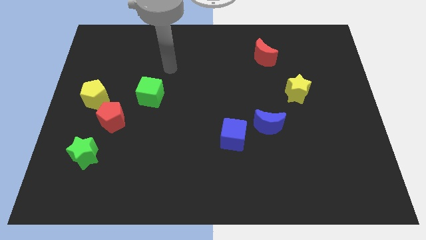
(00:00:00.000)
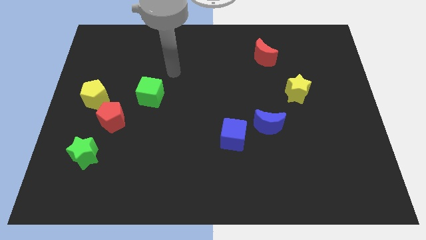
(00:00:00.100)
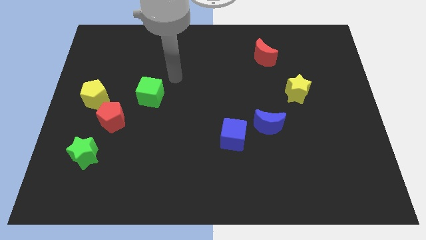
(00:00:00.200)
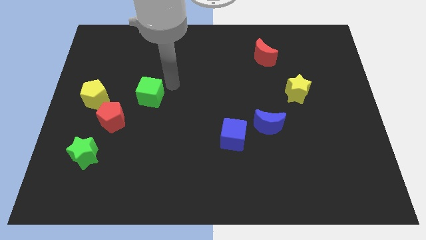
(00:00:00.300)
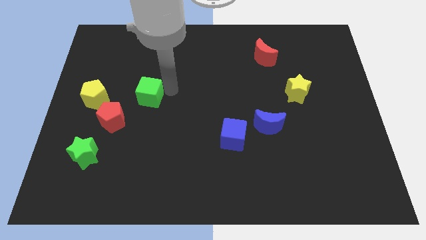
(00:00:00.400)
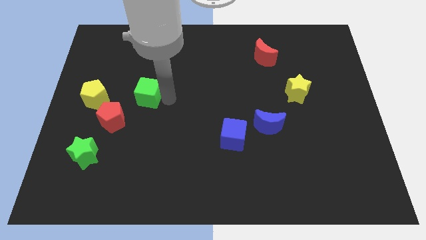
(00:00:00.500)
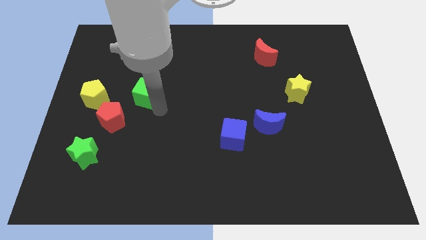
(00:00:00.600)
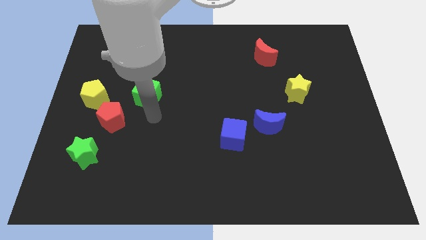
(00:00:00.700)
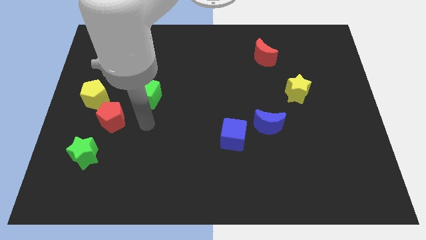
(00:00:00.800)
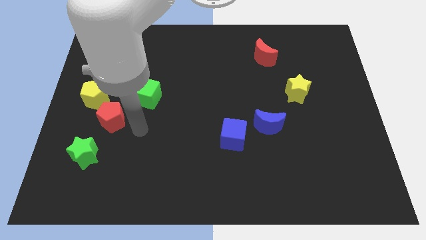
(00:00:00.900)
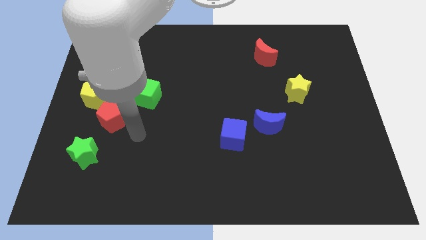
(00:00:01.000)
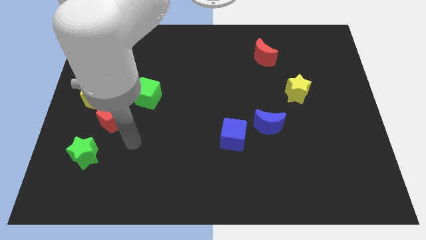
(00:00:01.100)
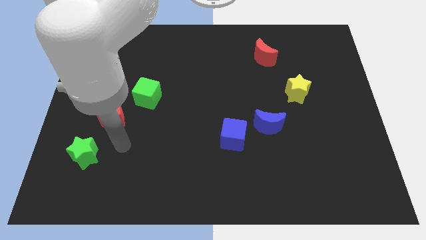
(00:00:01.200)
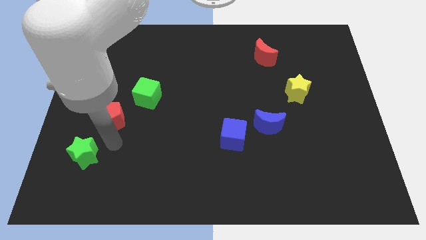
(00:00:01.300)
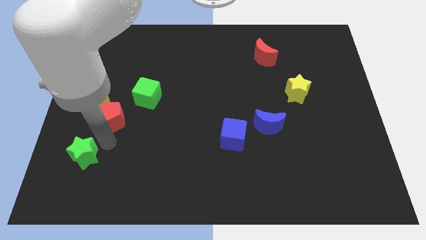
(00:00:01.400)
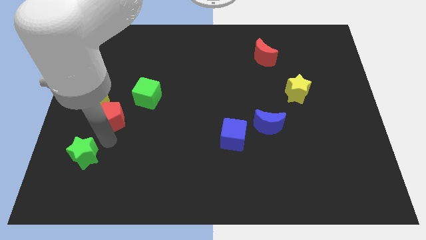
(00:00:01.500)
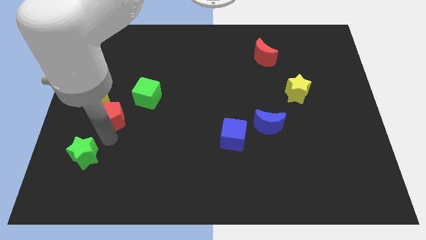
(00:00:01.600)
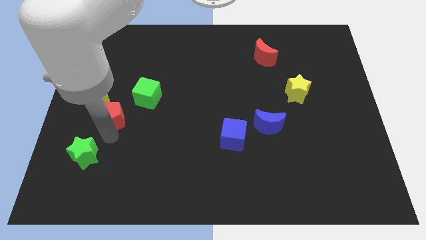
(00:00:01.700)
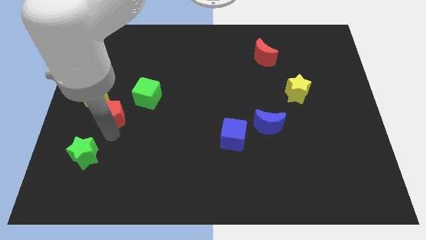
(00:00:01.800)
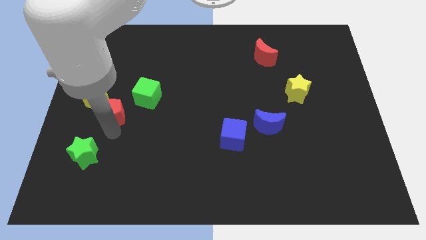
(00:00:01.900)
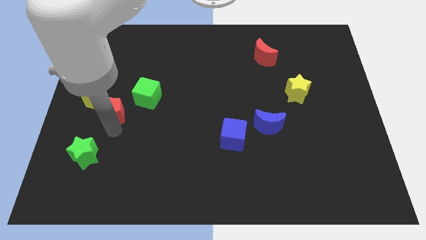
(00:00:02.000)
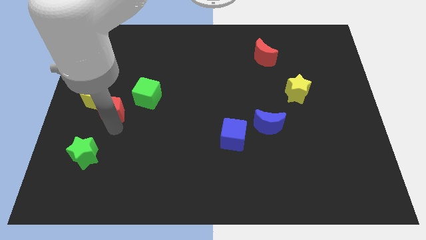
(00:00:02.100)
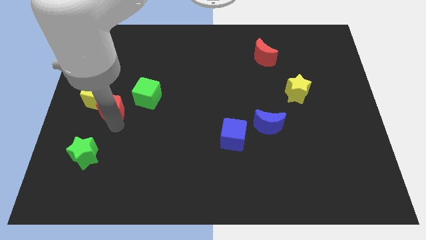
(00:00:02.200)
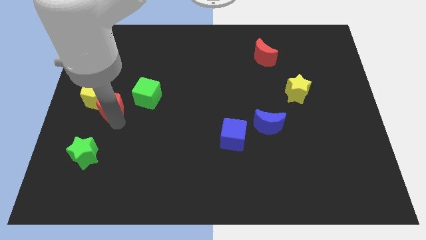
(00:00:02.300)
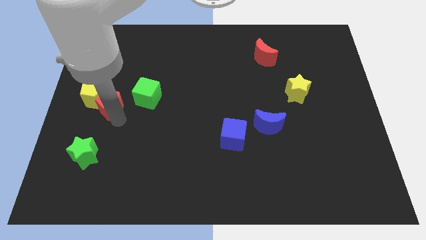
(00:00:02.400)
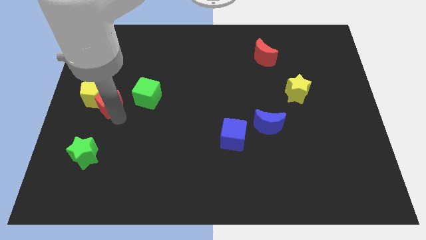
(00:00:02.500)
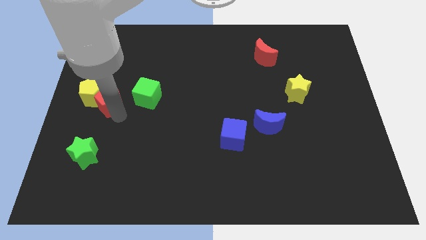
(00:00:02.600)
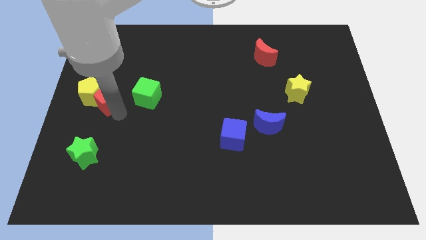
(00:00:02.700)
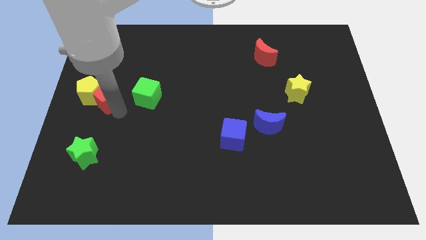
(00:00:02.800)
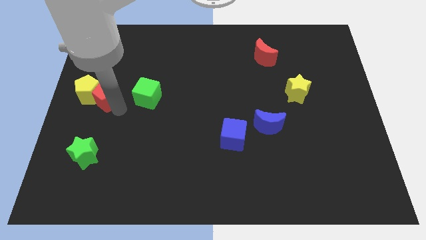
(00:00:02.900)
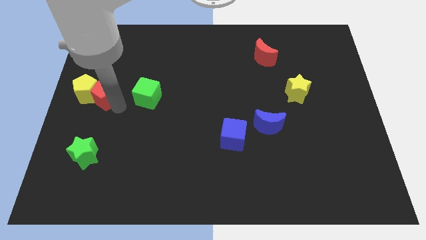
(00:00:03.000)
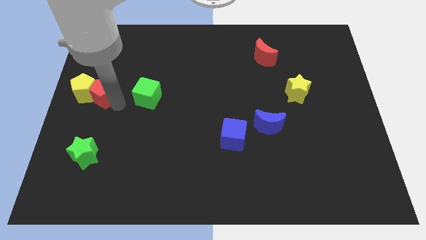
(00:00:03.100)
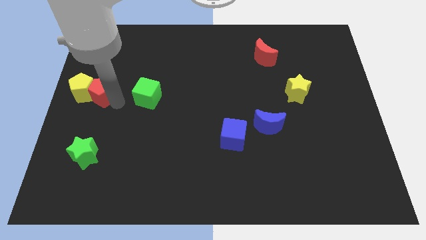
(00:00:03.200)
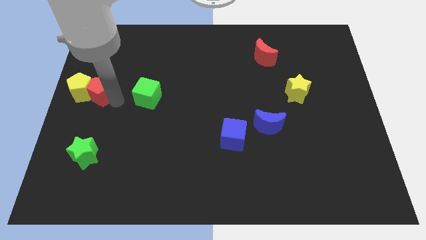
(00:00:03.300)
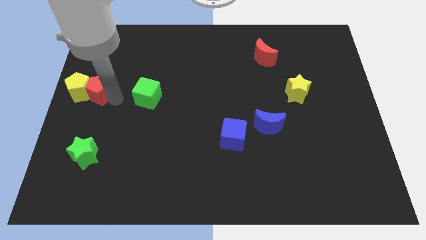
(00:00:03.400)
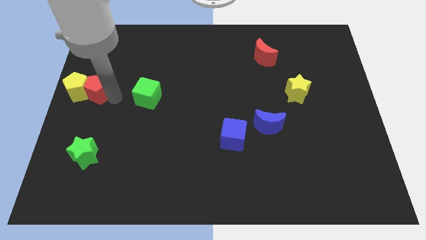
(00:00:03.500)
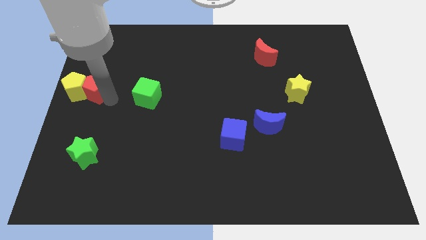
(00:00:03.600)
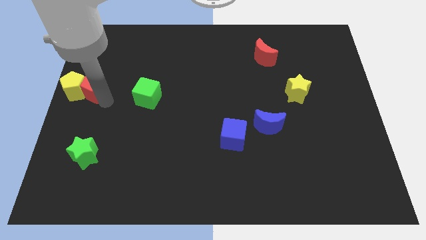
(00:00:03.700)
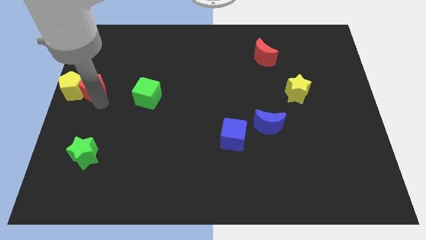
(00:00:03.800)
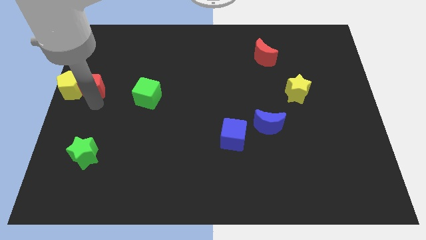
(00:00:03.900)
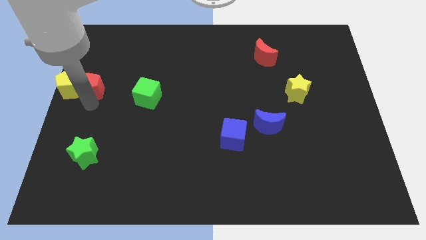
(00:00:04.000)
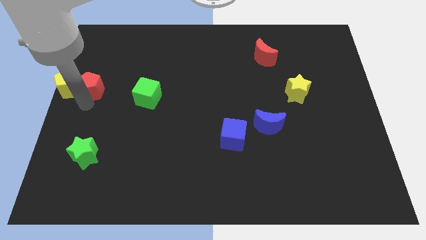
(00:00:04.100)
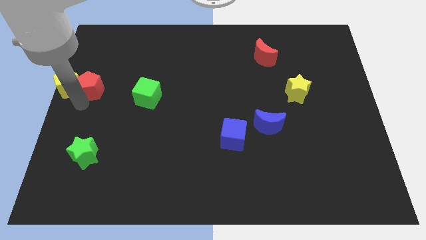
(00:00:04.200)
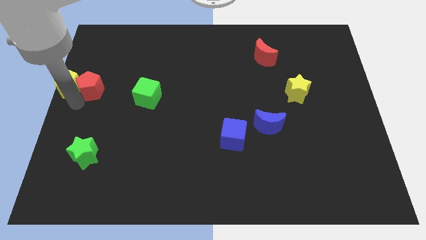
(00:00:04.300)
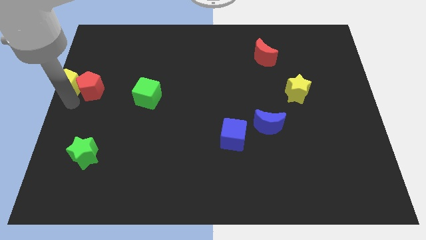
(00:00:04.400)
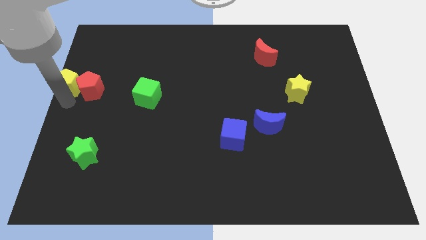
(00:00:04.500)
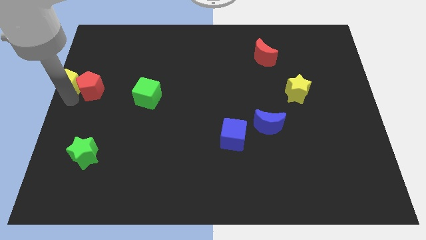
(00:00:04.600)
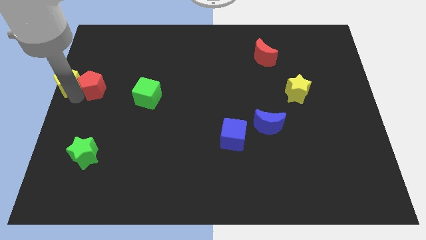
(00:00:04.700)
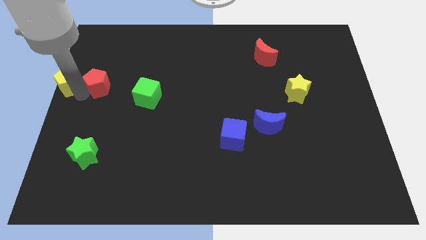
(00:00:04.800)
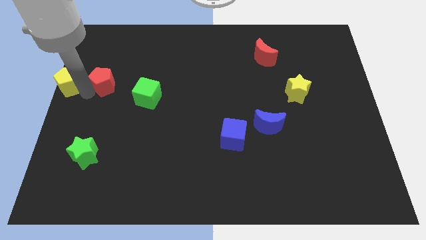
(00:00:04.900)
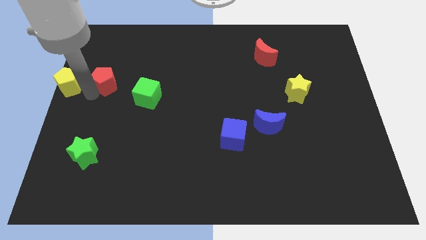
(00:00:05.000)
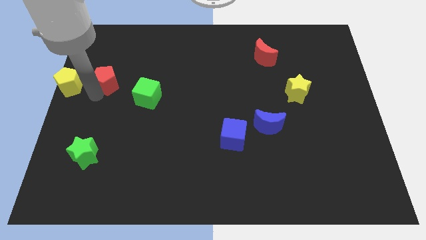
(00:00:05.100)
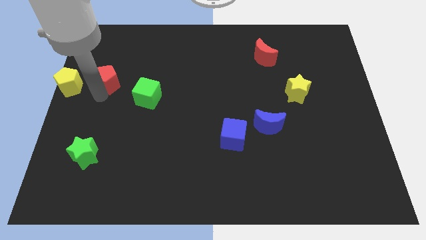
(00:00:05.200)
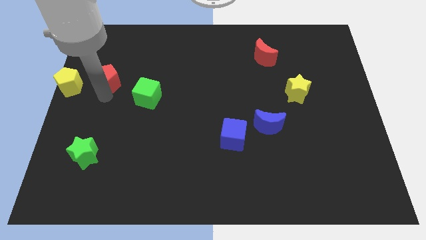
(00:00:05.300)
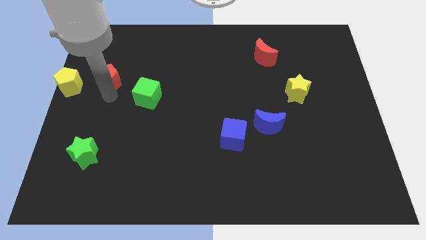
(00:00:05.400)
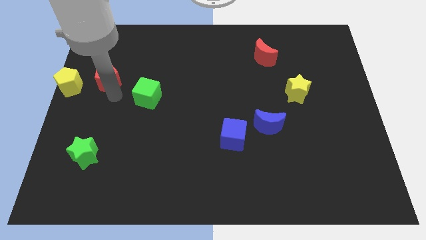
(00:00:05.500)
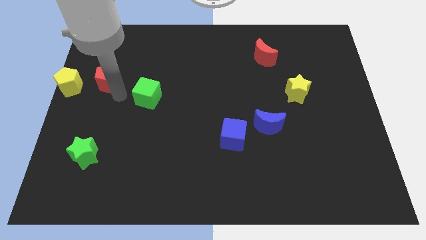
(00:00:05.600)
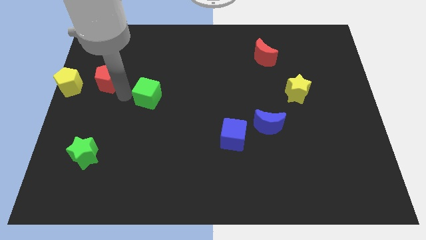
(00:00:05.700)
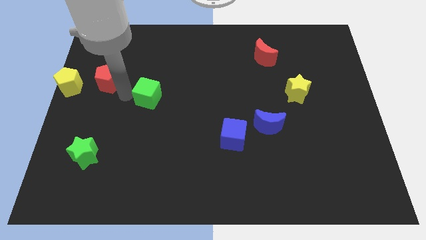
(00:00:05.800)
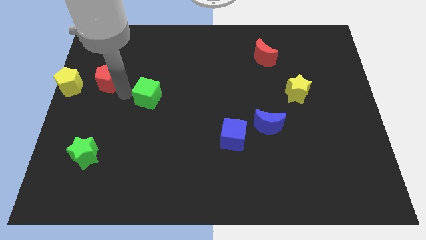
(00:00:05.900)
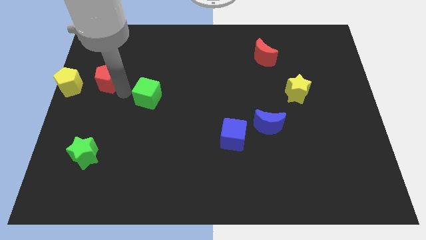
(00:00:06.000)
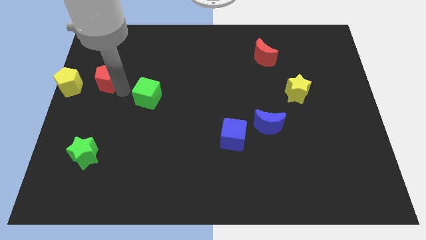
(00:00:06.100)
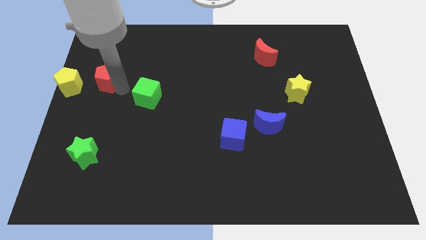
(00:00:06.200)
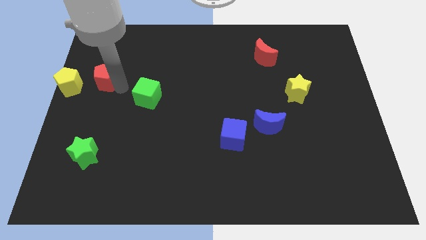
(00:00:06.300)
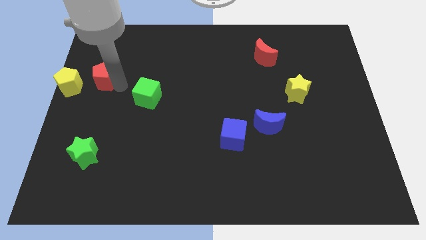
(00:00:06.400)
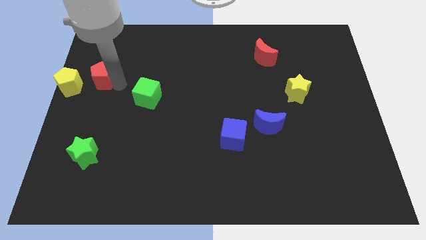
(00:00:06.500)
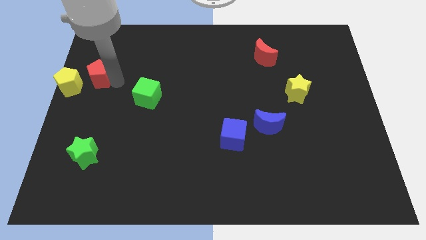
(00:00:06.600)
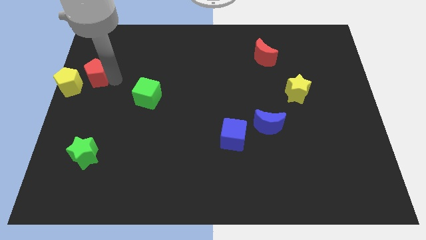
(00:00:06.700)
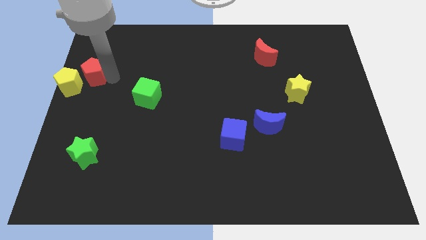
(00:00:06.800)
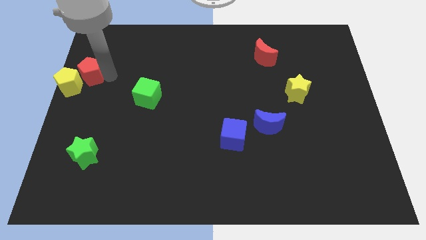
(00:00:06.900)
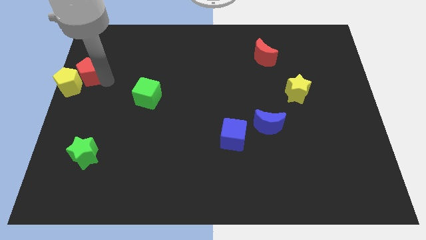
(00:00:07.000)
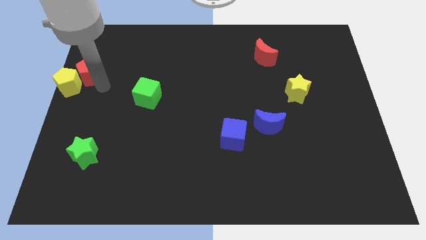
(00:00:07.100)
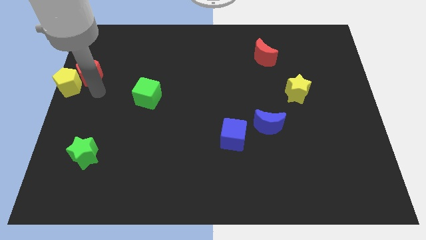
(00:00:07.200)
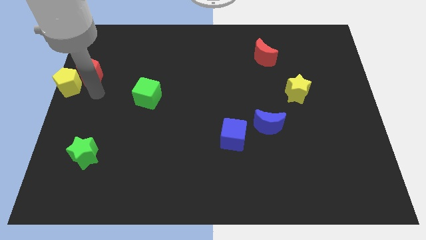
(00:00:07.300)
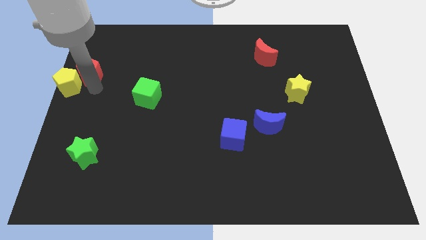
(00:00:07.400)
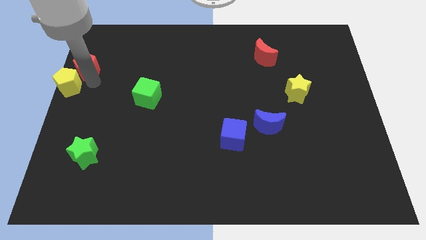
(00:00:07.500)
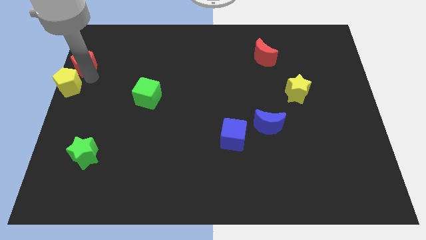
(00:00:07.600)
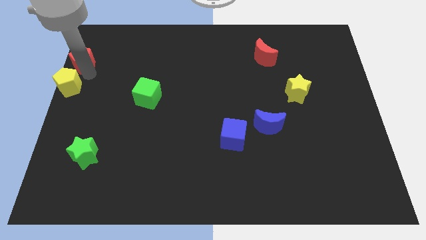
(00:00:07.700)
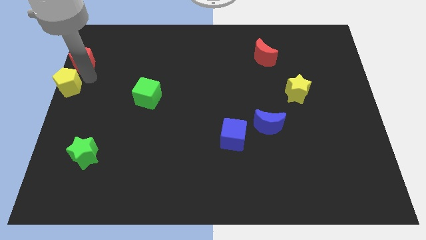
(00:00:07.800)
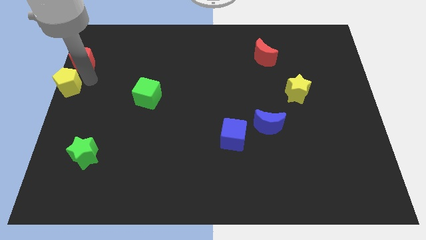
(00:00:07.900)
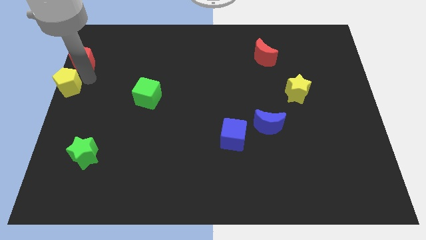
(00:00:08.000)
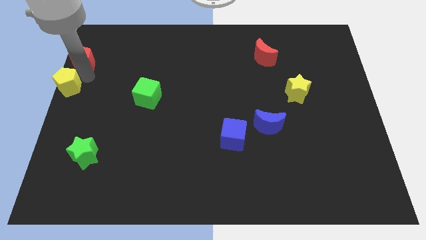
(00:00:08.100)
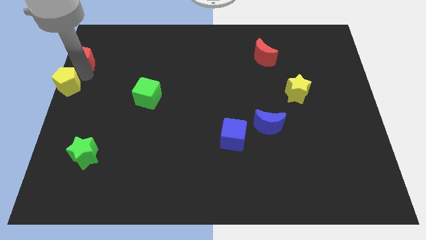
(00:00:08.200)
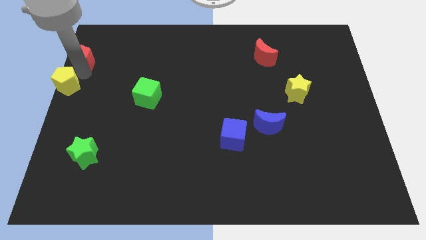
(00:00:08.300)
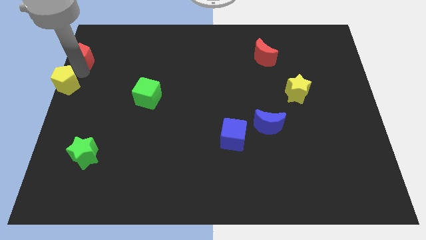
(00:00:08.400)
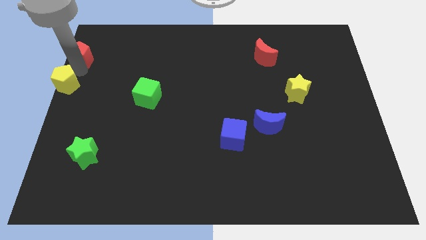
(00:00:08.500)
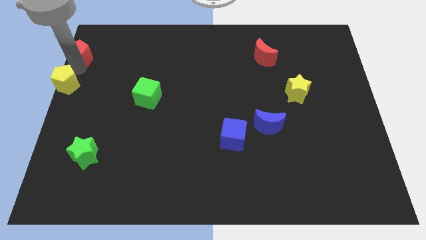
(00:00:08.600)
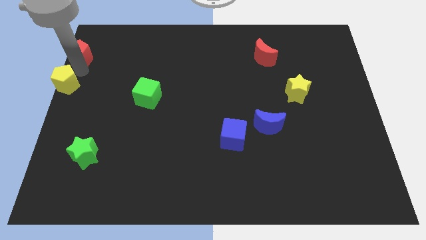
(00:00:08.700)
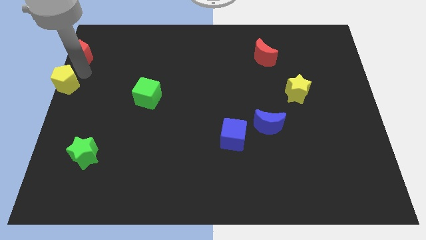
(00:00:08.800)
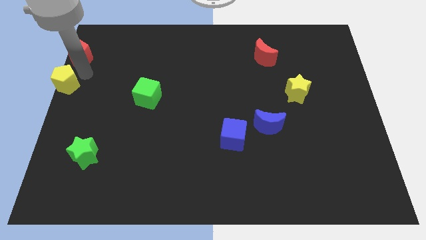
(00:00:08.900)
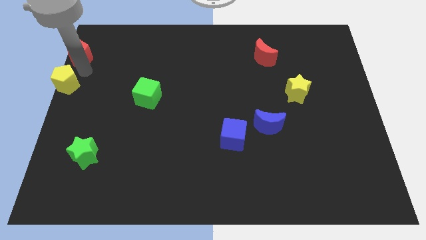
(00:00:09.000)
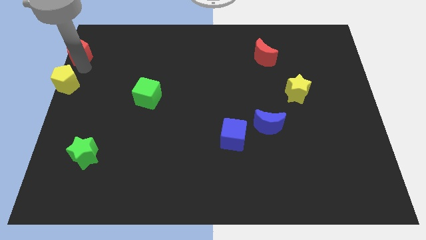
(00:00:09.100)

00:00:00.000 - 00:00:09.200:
push the red pentagon to the top left of the board
